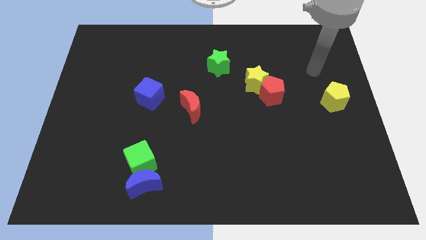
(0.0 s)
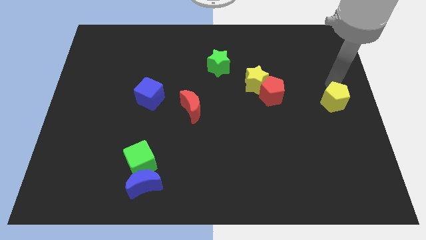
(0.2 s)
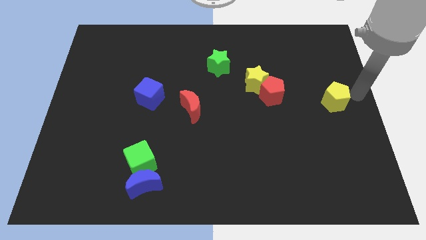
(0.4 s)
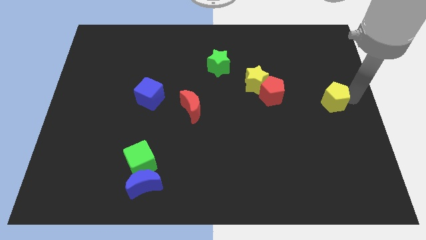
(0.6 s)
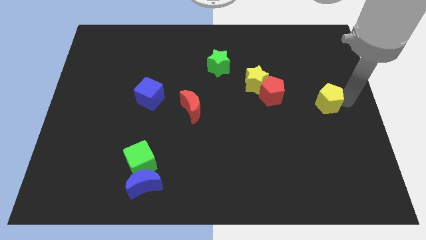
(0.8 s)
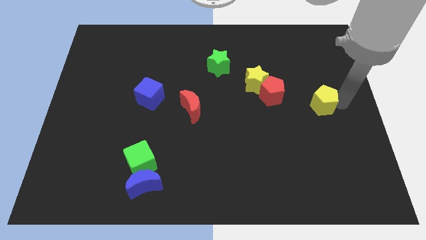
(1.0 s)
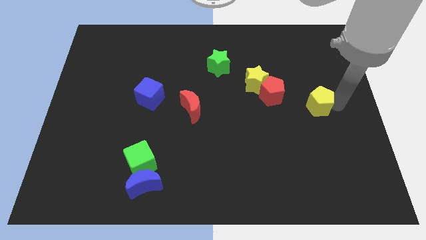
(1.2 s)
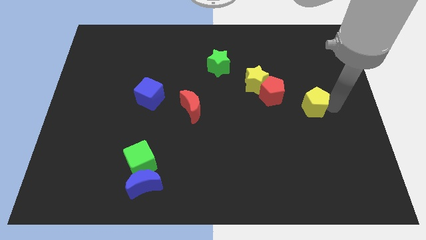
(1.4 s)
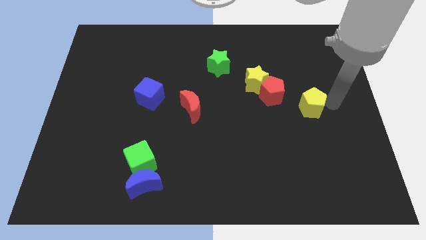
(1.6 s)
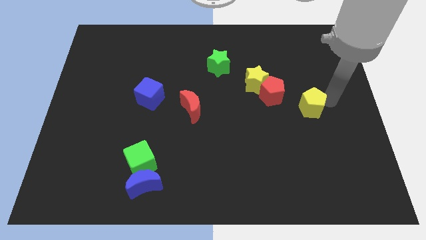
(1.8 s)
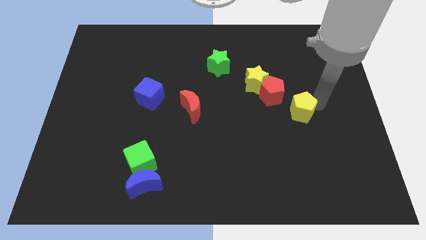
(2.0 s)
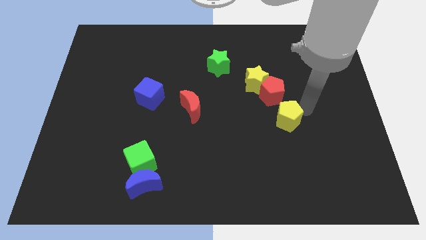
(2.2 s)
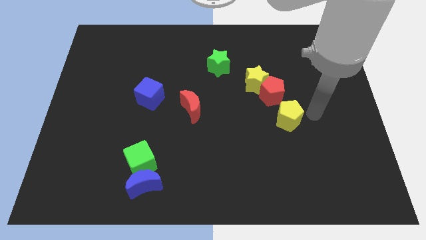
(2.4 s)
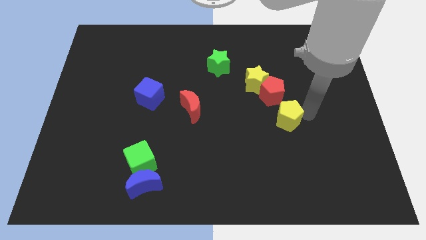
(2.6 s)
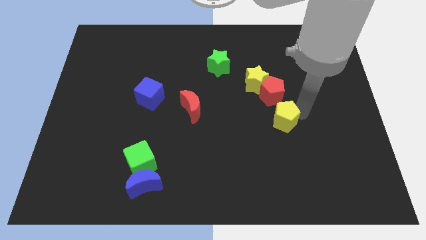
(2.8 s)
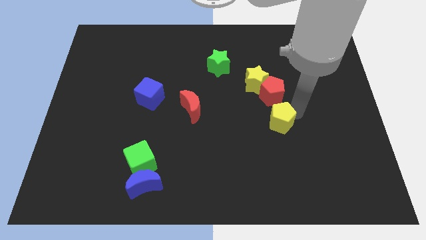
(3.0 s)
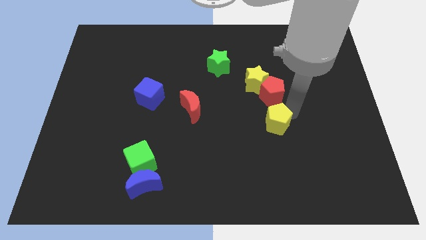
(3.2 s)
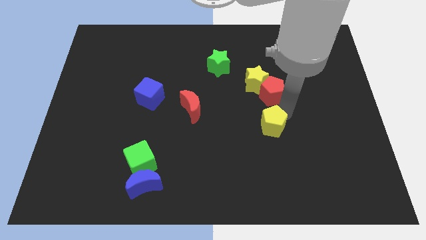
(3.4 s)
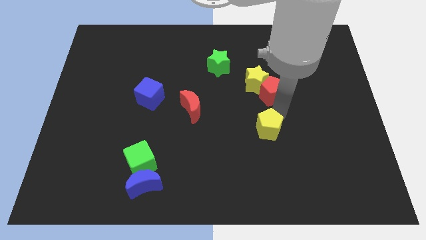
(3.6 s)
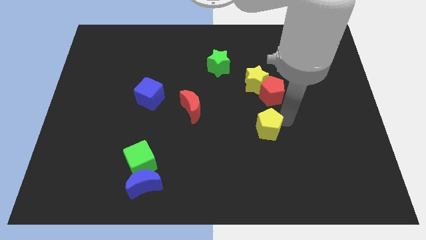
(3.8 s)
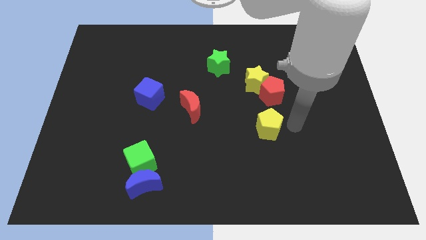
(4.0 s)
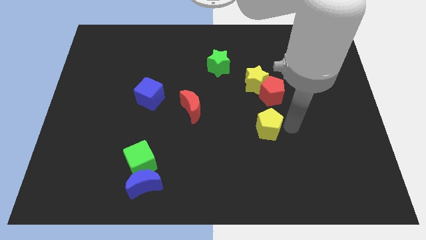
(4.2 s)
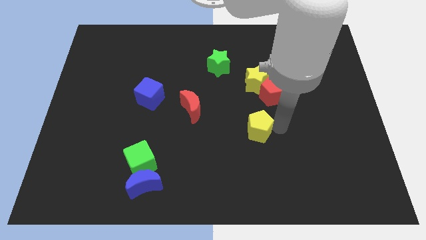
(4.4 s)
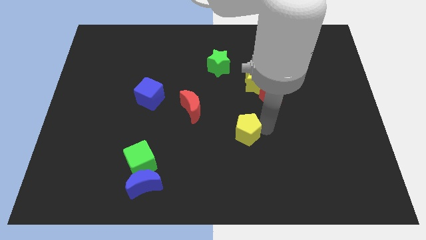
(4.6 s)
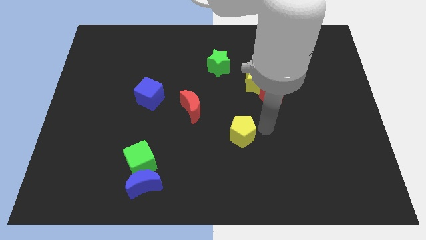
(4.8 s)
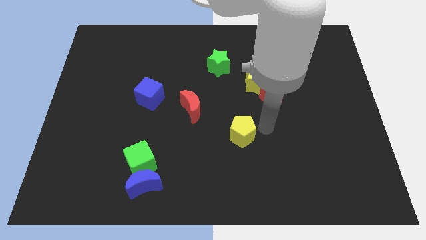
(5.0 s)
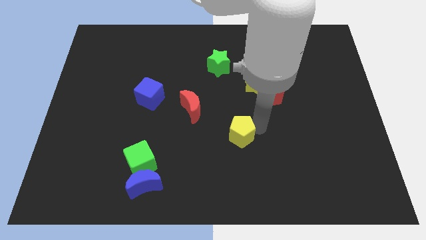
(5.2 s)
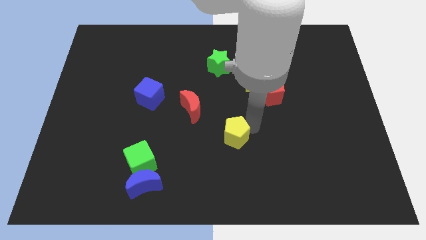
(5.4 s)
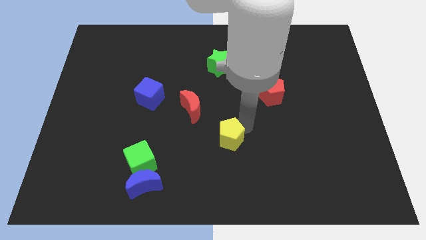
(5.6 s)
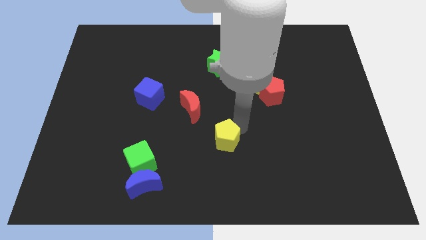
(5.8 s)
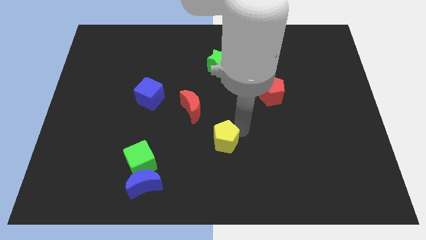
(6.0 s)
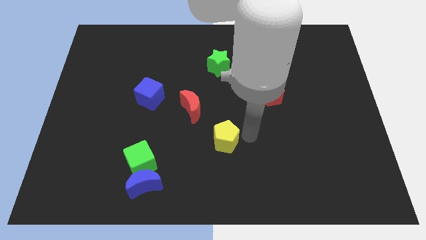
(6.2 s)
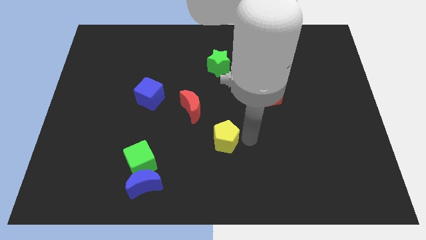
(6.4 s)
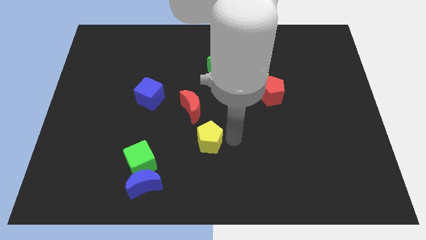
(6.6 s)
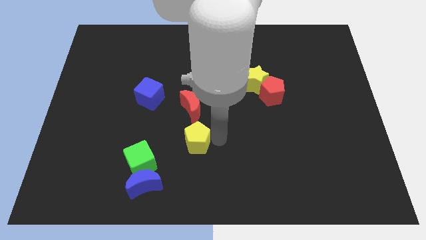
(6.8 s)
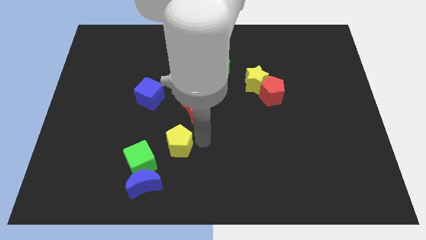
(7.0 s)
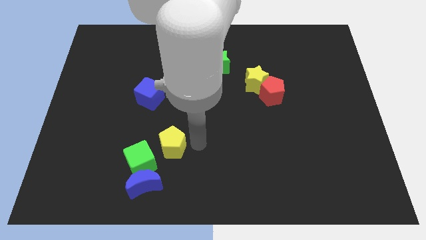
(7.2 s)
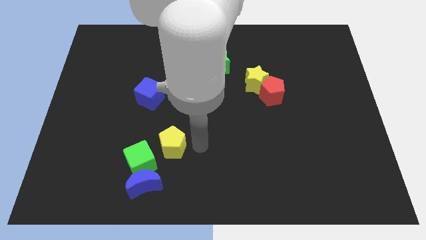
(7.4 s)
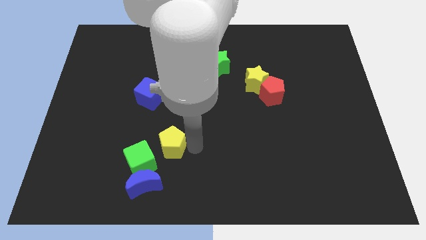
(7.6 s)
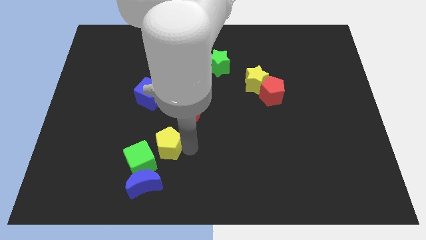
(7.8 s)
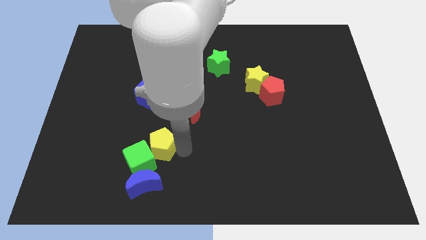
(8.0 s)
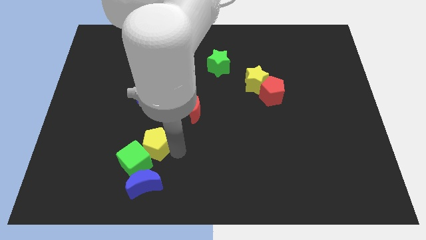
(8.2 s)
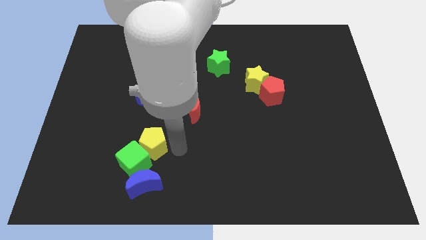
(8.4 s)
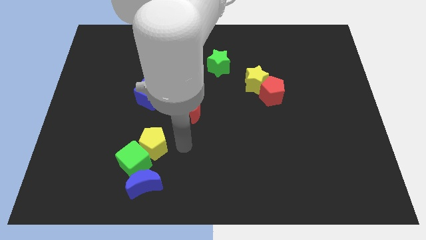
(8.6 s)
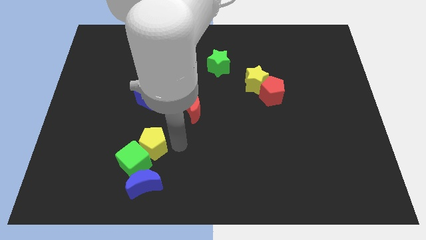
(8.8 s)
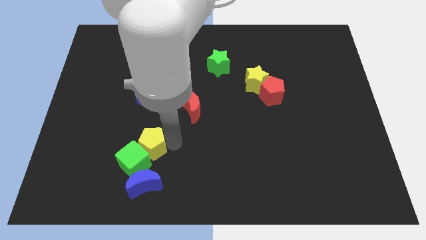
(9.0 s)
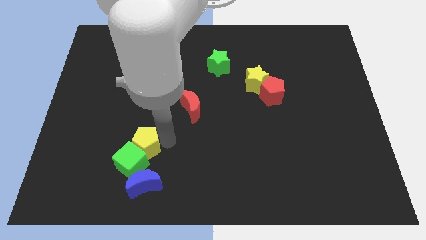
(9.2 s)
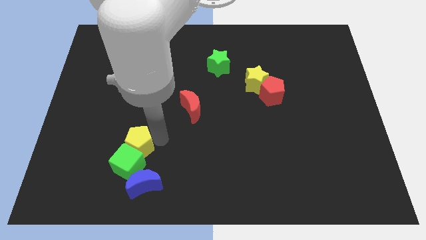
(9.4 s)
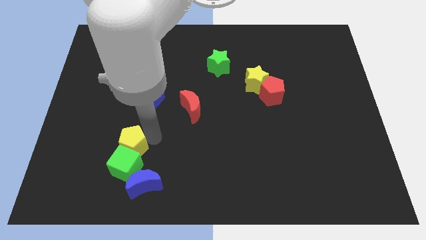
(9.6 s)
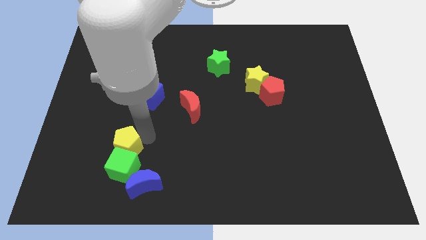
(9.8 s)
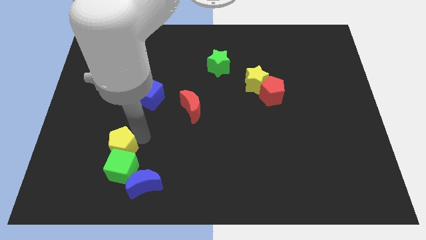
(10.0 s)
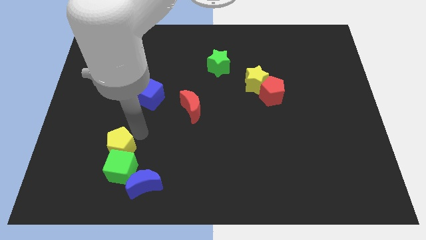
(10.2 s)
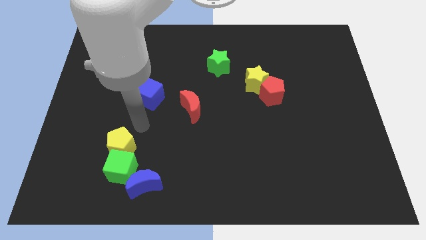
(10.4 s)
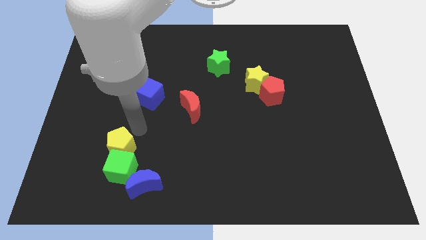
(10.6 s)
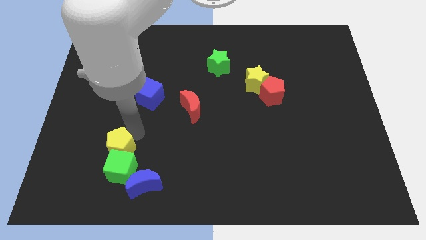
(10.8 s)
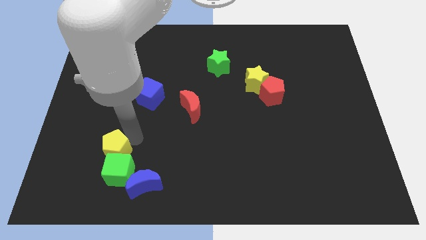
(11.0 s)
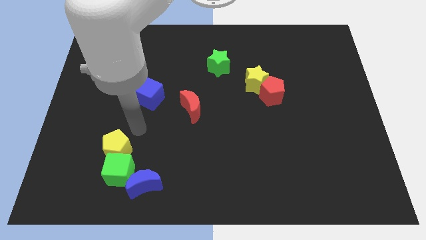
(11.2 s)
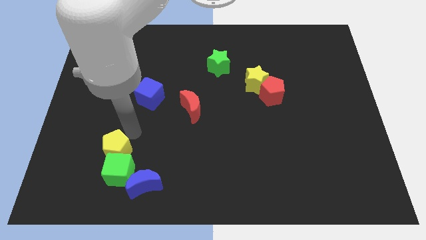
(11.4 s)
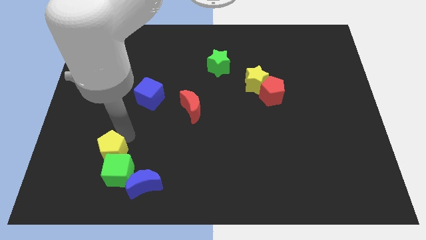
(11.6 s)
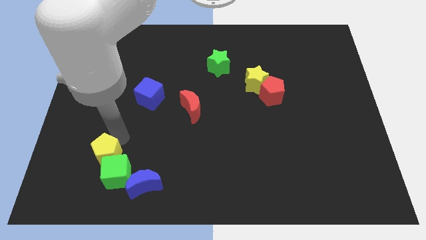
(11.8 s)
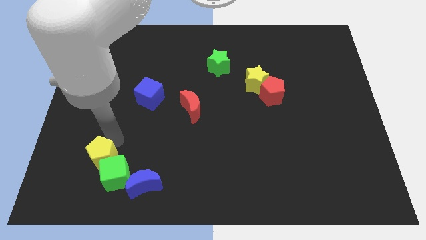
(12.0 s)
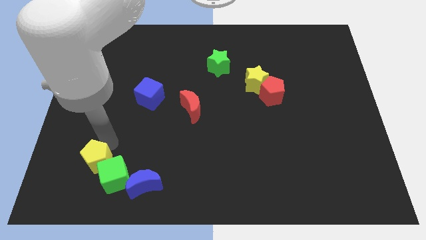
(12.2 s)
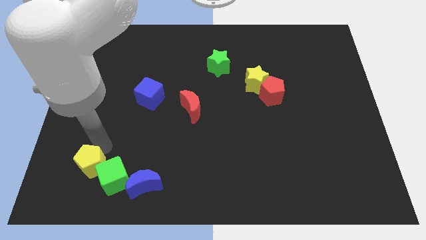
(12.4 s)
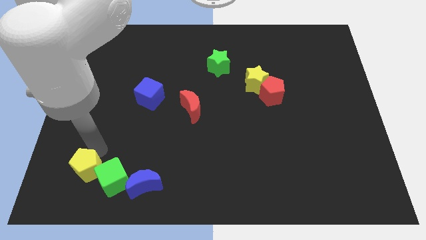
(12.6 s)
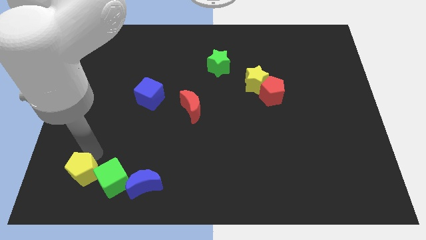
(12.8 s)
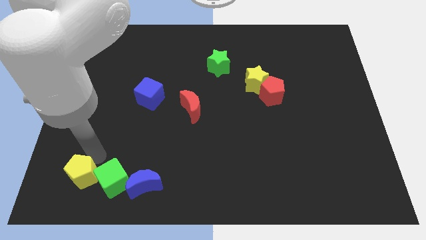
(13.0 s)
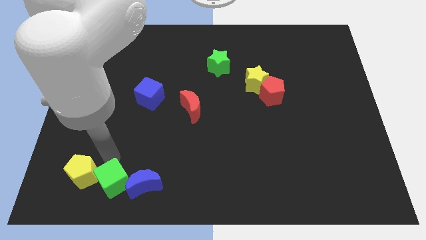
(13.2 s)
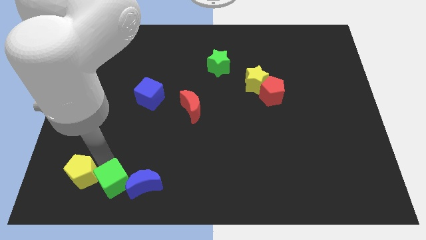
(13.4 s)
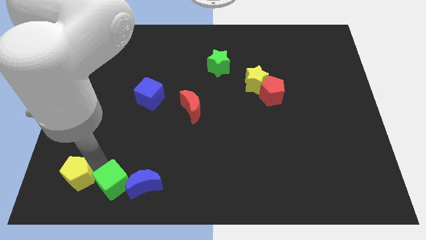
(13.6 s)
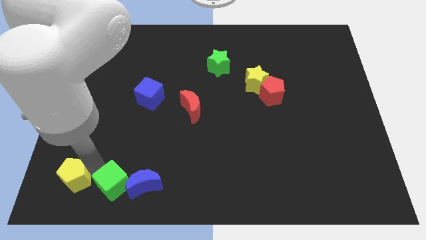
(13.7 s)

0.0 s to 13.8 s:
push the yellow pentagon to the bottom left of the board
